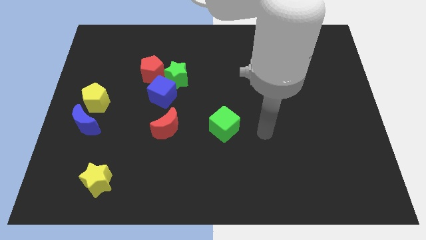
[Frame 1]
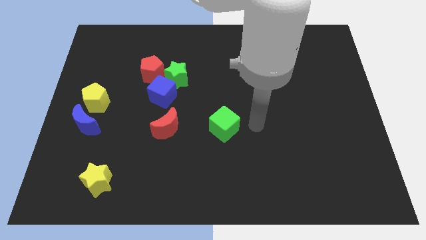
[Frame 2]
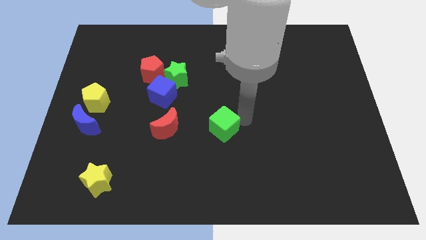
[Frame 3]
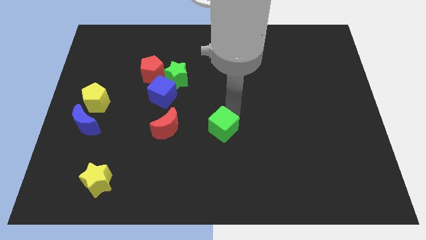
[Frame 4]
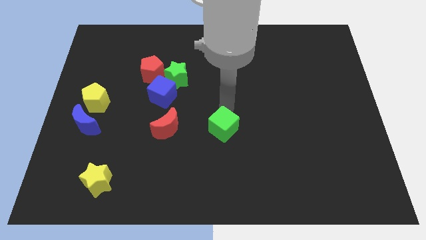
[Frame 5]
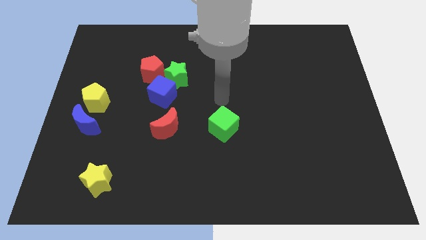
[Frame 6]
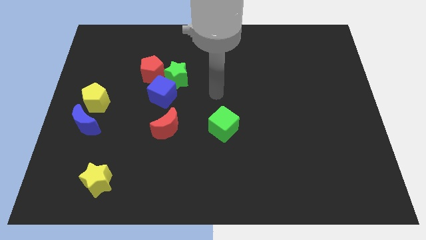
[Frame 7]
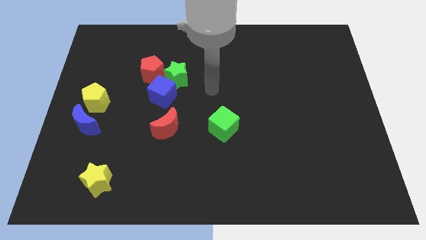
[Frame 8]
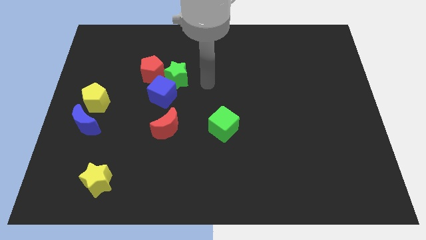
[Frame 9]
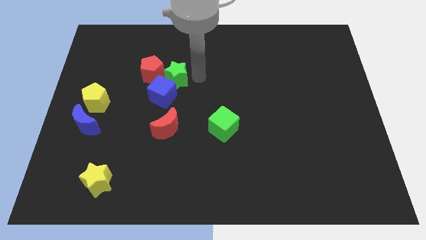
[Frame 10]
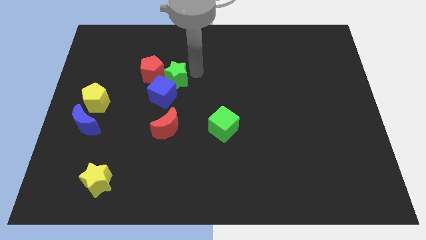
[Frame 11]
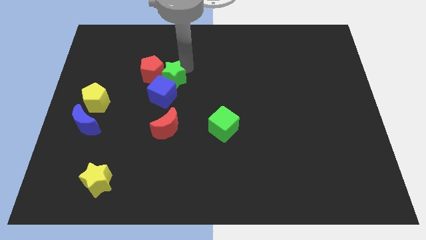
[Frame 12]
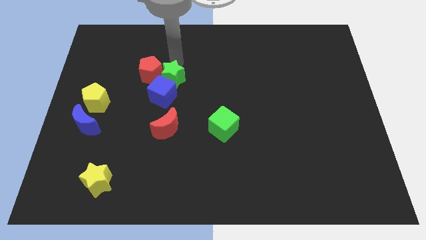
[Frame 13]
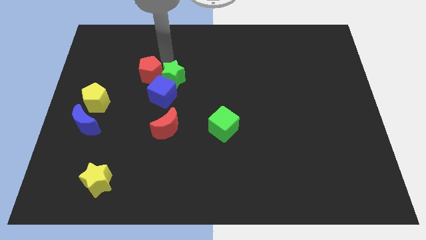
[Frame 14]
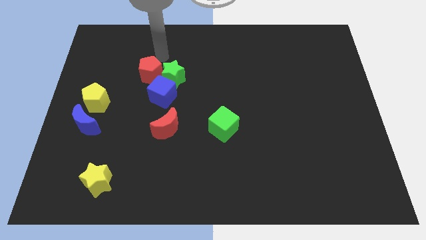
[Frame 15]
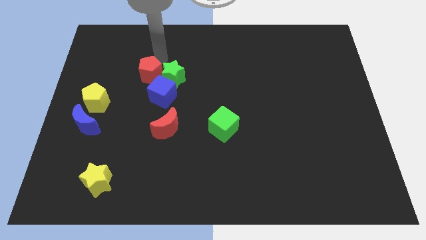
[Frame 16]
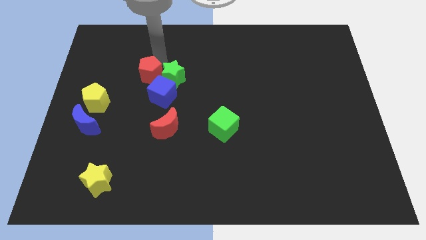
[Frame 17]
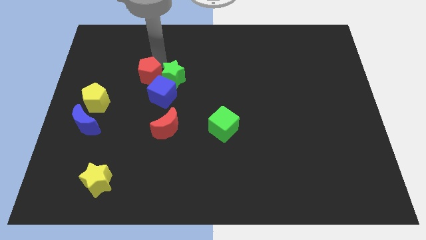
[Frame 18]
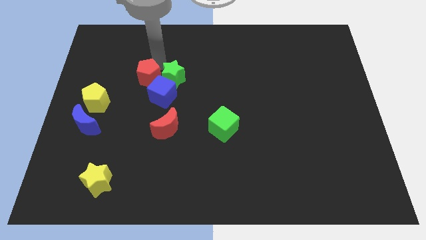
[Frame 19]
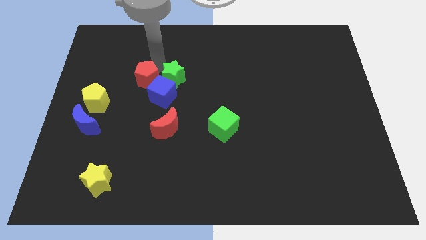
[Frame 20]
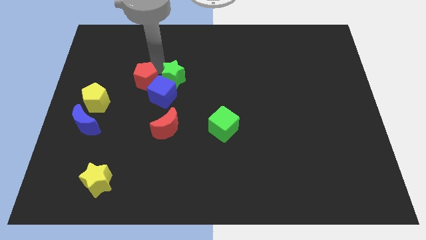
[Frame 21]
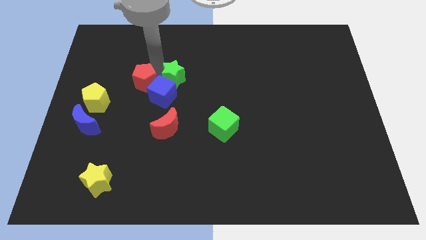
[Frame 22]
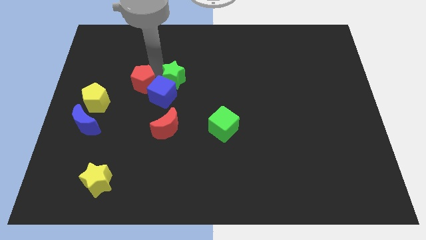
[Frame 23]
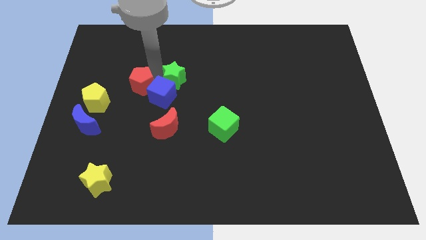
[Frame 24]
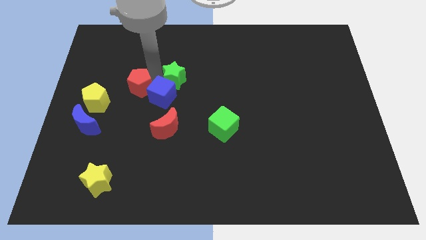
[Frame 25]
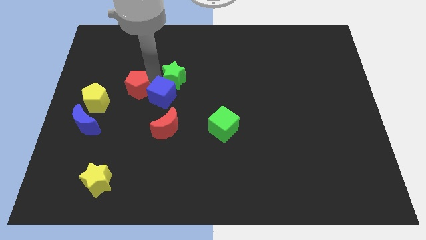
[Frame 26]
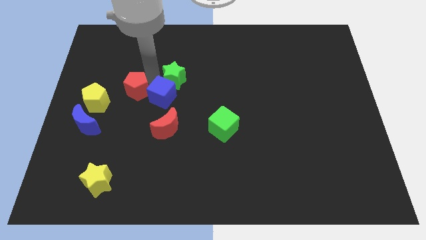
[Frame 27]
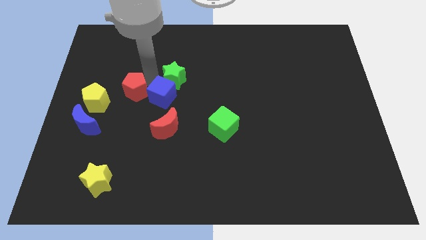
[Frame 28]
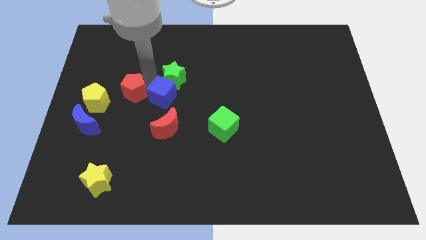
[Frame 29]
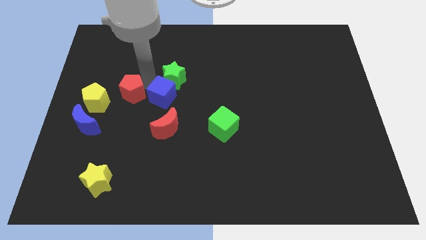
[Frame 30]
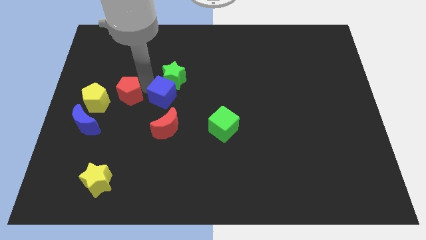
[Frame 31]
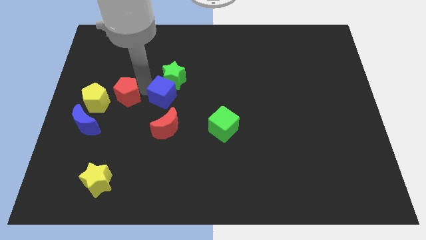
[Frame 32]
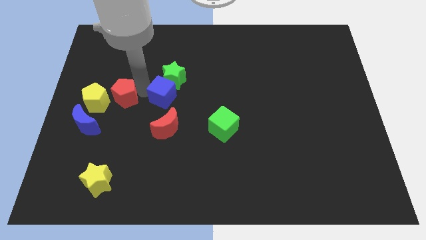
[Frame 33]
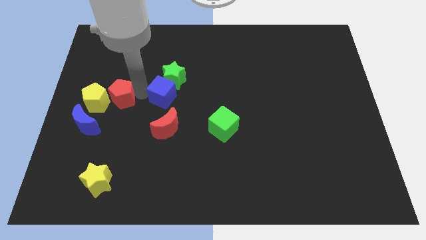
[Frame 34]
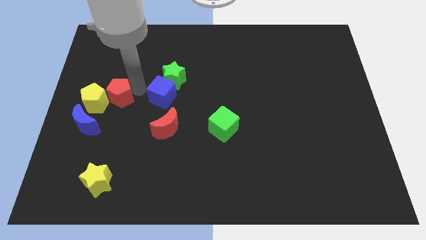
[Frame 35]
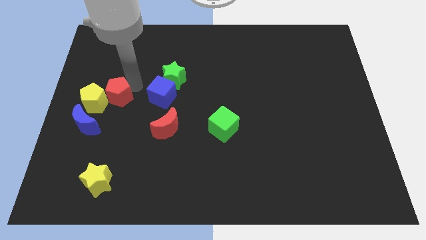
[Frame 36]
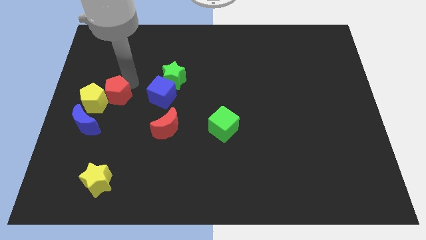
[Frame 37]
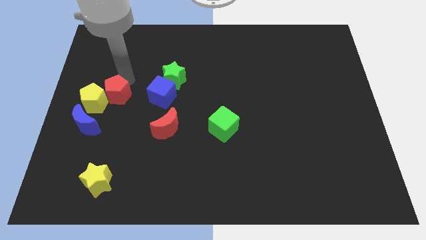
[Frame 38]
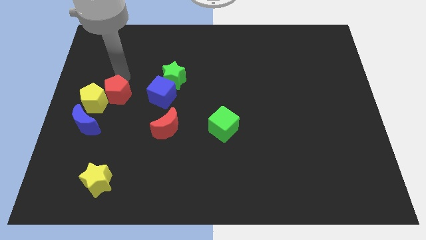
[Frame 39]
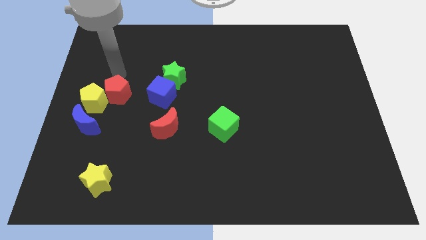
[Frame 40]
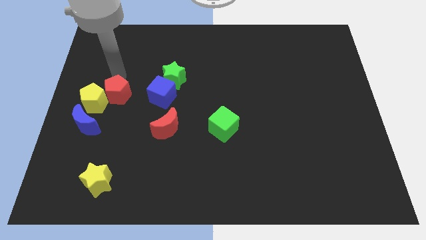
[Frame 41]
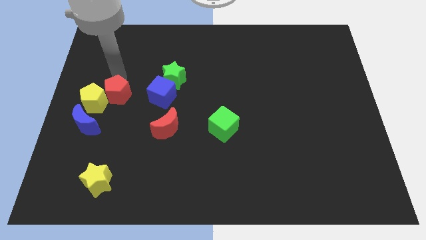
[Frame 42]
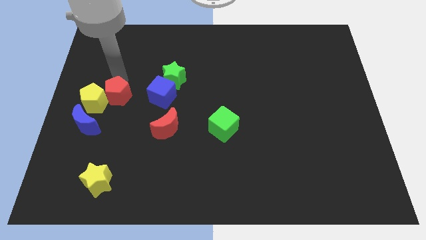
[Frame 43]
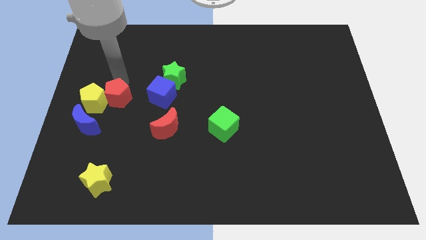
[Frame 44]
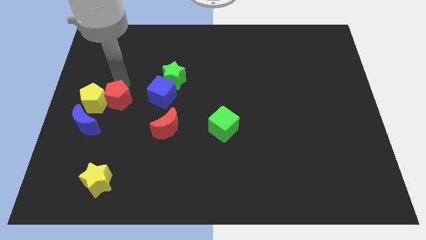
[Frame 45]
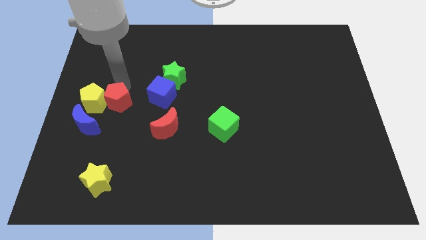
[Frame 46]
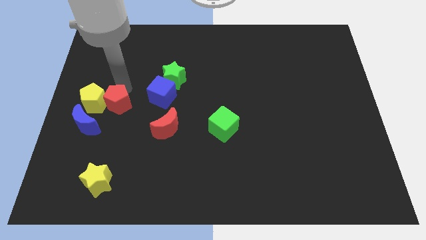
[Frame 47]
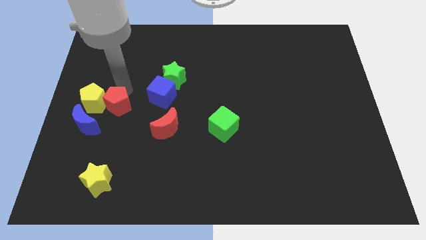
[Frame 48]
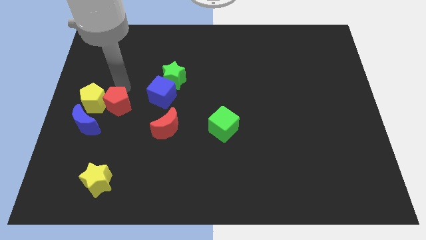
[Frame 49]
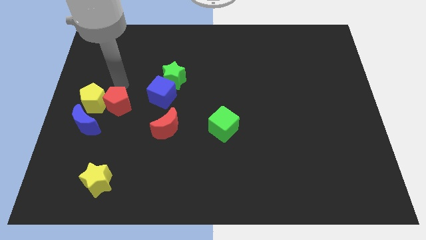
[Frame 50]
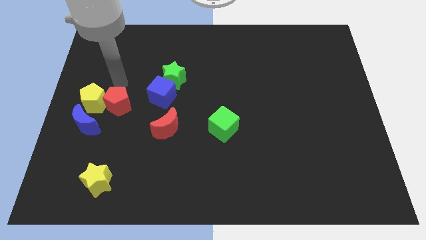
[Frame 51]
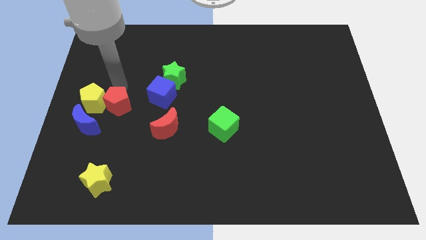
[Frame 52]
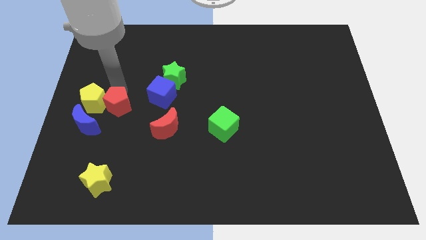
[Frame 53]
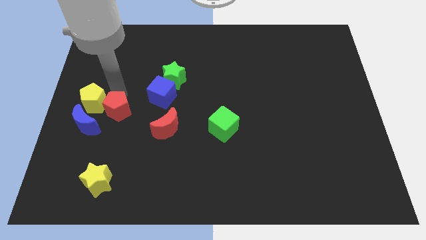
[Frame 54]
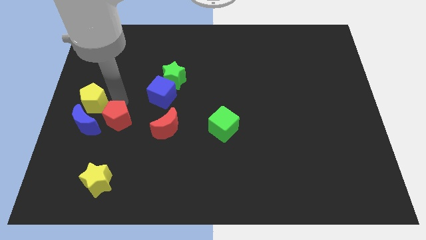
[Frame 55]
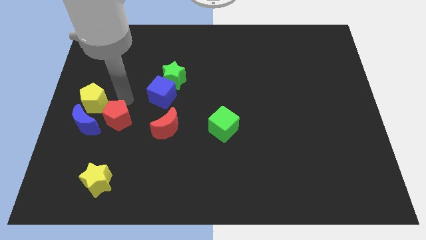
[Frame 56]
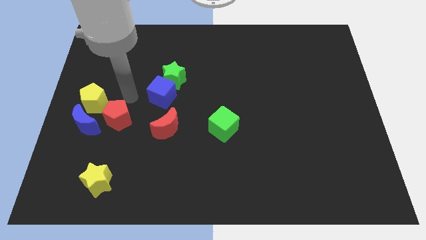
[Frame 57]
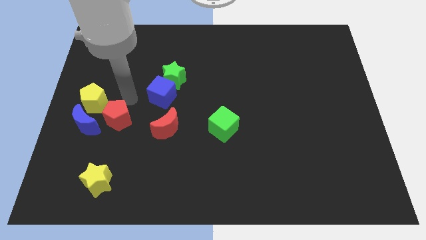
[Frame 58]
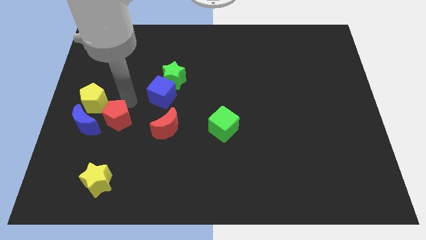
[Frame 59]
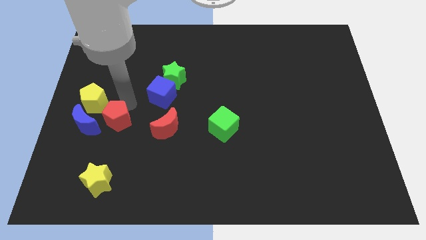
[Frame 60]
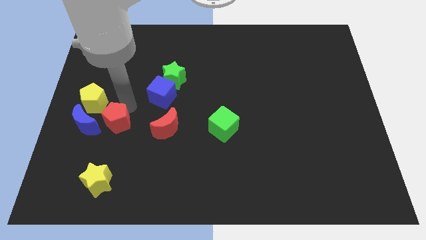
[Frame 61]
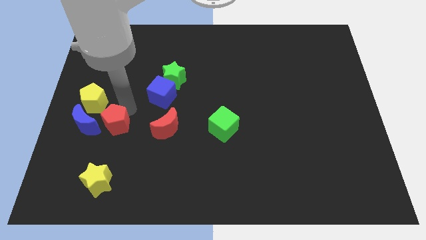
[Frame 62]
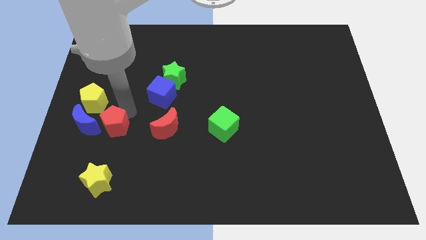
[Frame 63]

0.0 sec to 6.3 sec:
slide the red pentagon diagonally down and to the right of the blue moon
